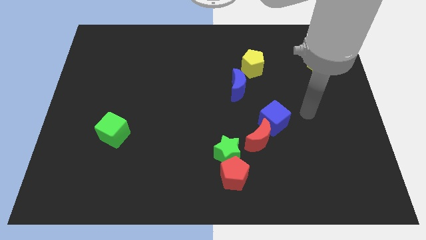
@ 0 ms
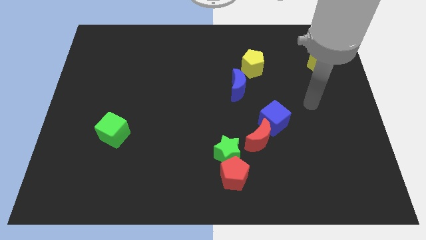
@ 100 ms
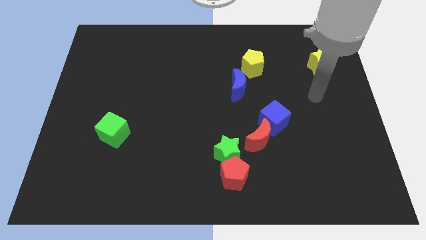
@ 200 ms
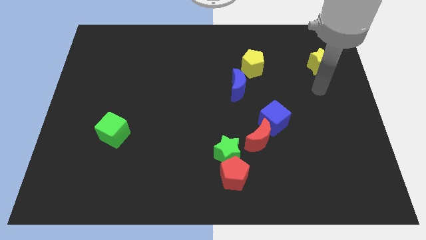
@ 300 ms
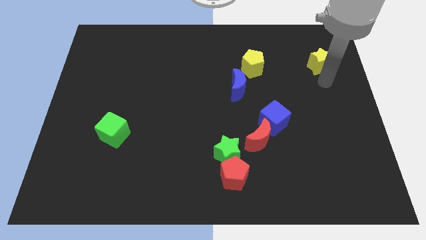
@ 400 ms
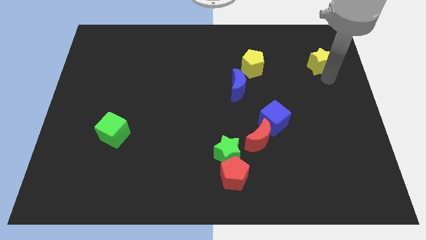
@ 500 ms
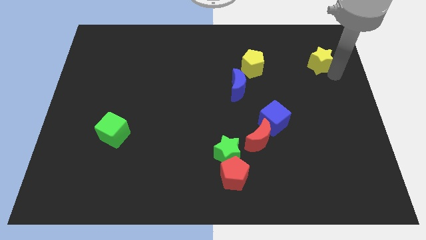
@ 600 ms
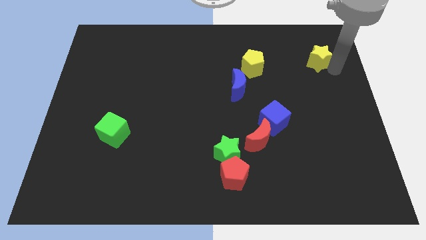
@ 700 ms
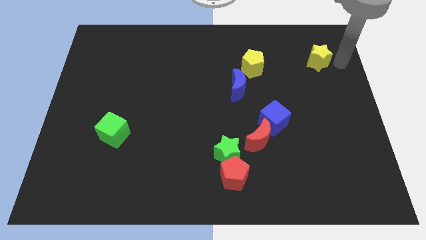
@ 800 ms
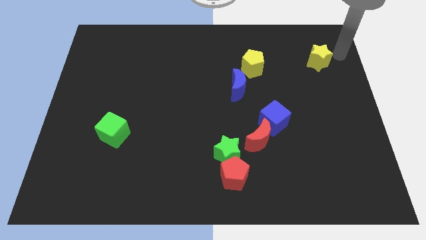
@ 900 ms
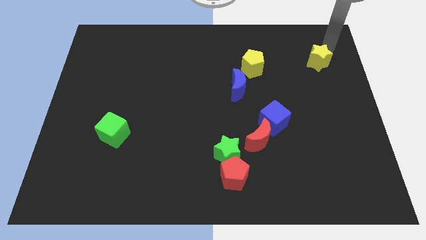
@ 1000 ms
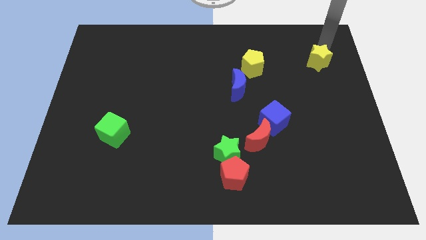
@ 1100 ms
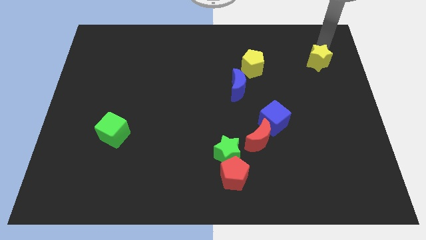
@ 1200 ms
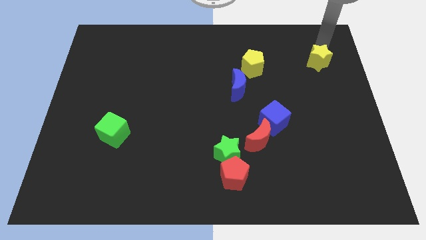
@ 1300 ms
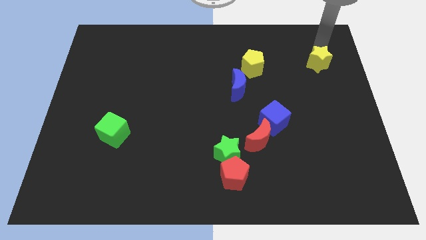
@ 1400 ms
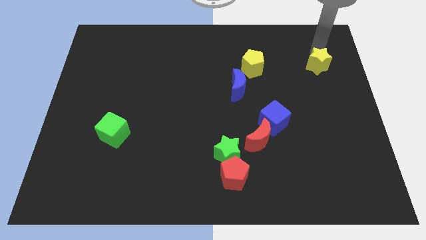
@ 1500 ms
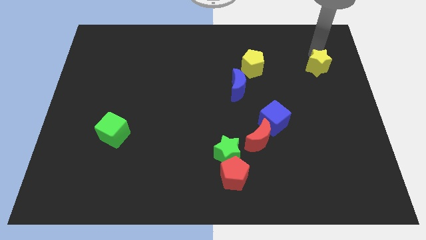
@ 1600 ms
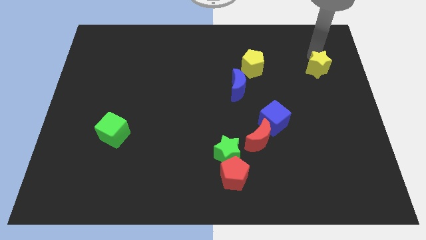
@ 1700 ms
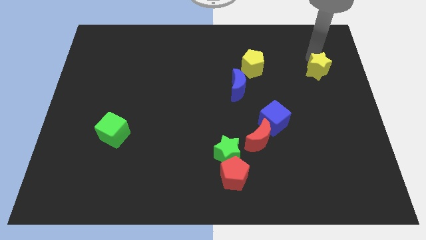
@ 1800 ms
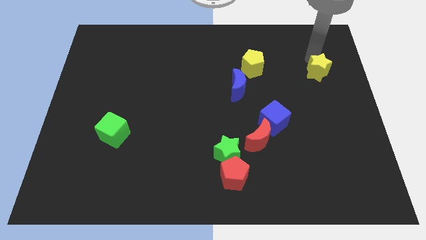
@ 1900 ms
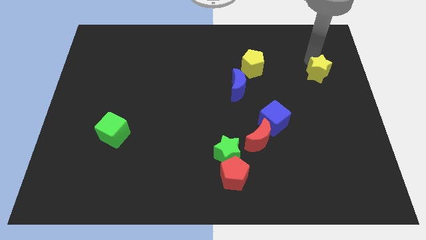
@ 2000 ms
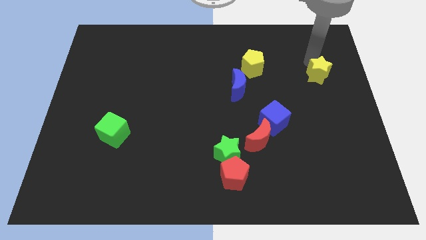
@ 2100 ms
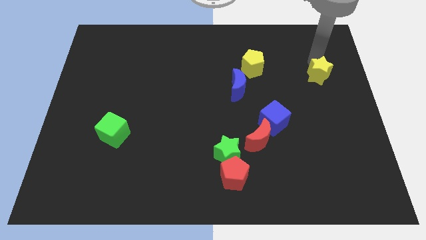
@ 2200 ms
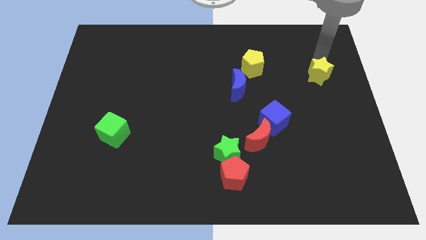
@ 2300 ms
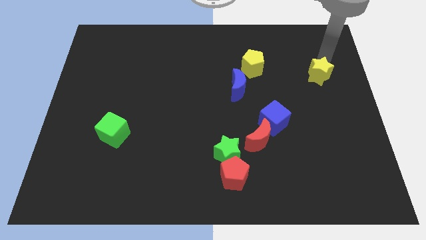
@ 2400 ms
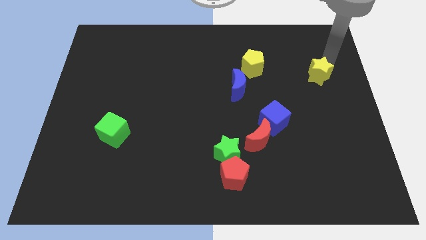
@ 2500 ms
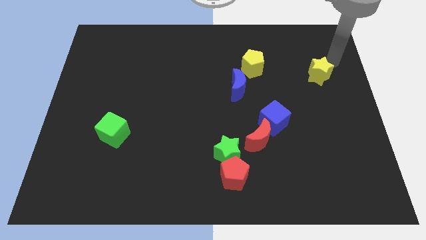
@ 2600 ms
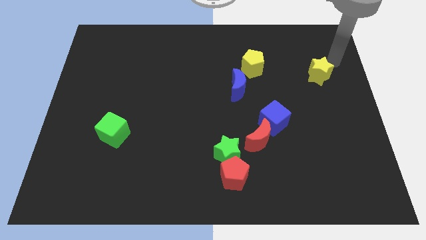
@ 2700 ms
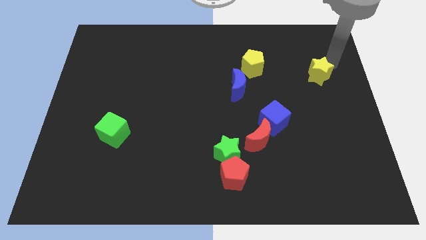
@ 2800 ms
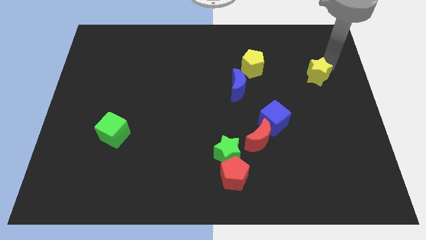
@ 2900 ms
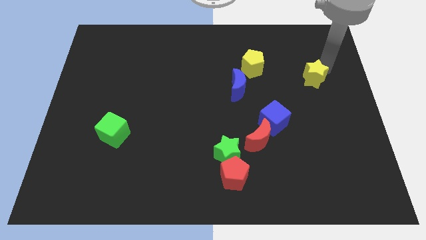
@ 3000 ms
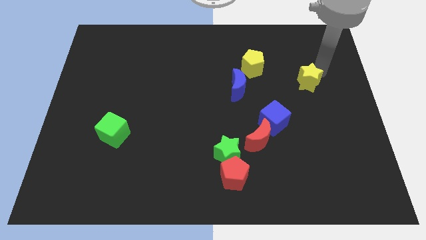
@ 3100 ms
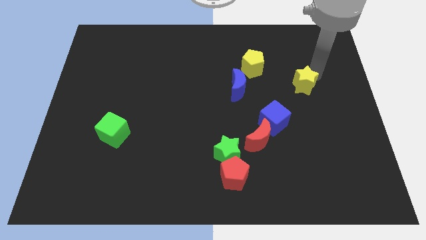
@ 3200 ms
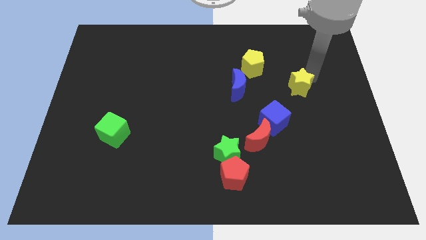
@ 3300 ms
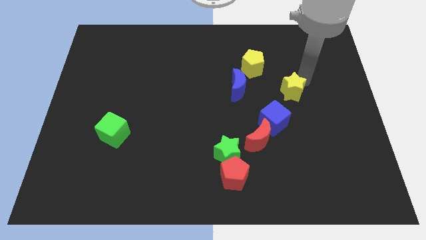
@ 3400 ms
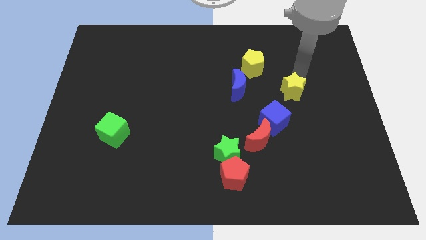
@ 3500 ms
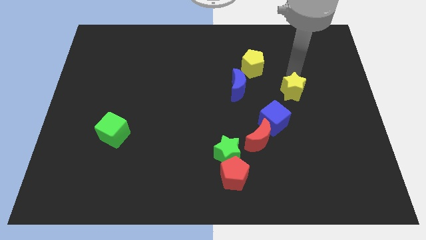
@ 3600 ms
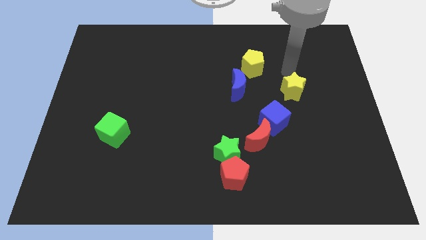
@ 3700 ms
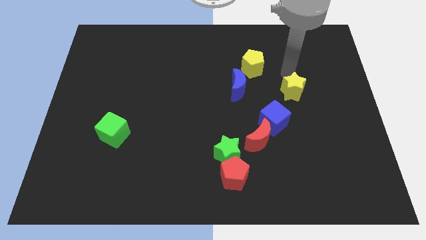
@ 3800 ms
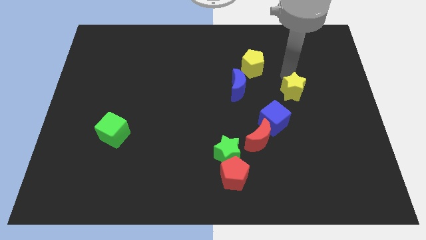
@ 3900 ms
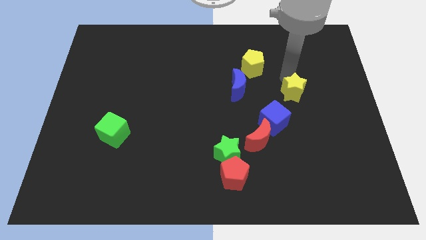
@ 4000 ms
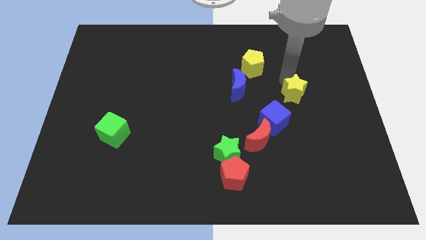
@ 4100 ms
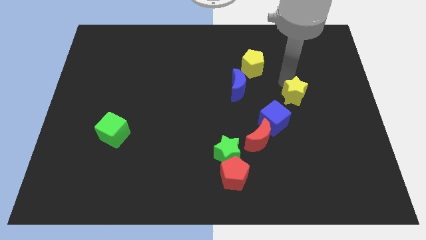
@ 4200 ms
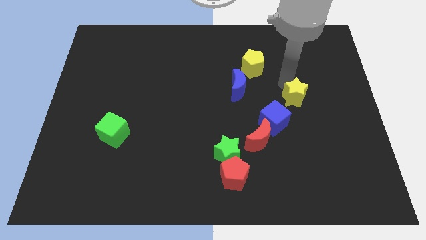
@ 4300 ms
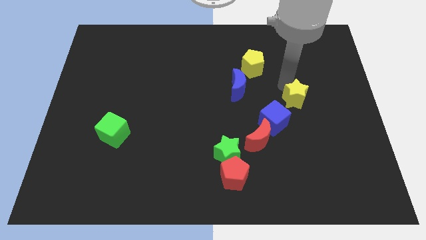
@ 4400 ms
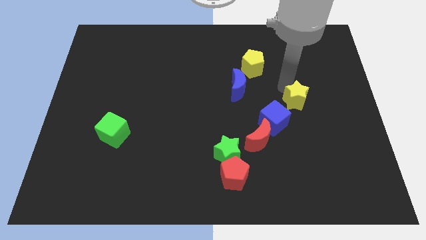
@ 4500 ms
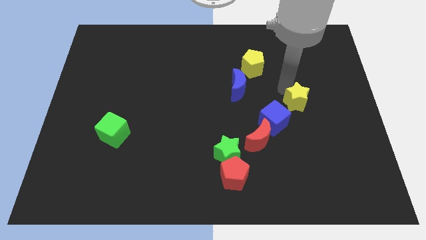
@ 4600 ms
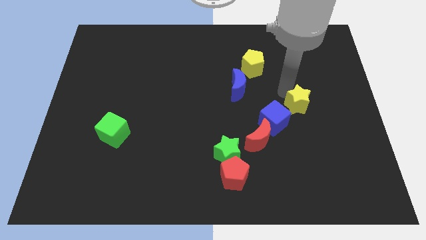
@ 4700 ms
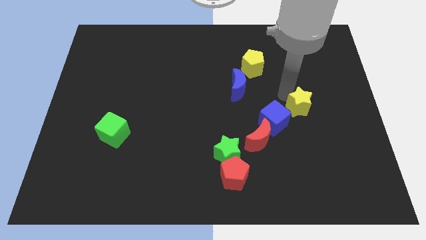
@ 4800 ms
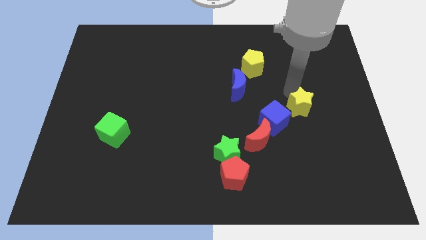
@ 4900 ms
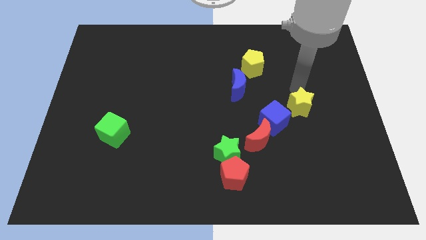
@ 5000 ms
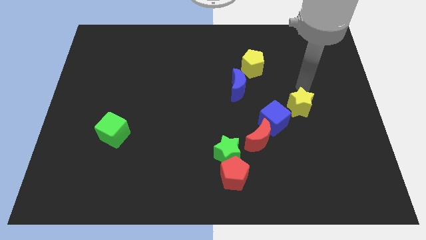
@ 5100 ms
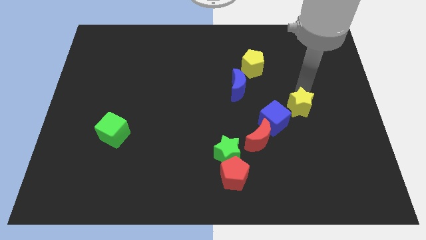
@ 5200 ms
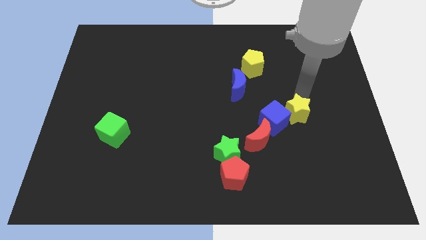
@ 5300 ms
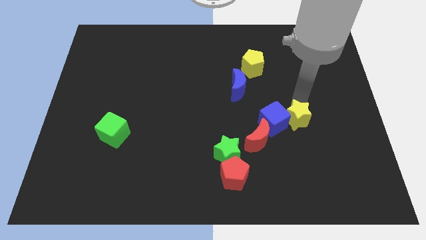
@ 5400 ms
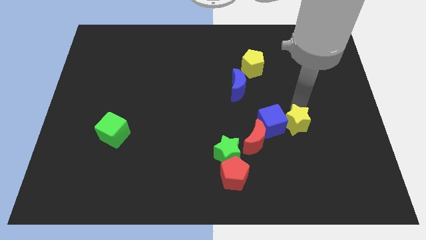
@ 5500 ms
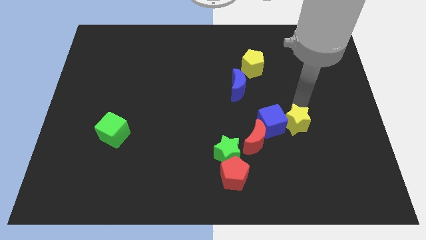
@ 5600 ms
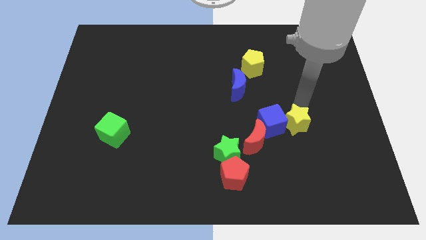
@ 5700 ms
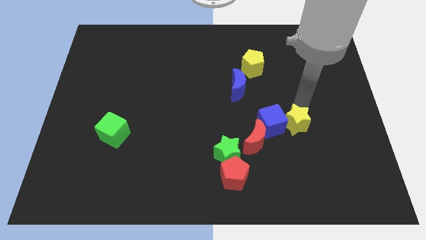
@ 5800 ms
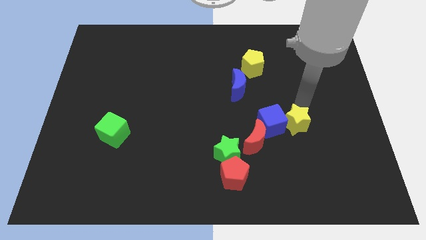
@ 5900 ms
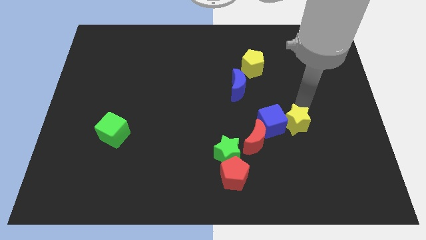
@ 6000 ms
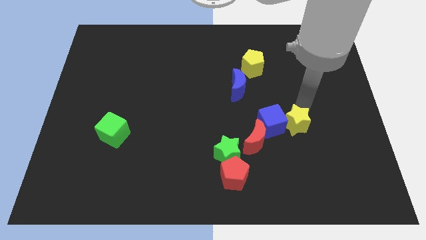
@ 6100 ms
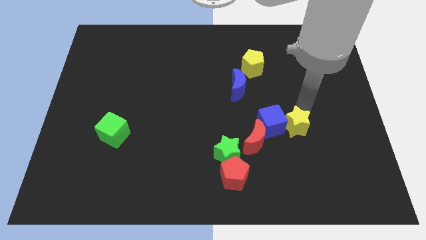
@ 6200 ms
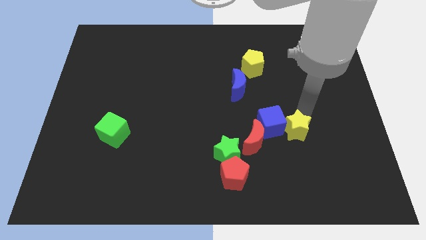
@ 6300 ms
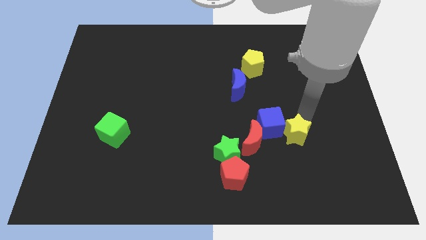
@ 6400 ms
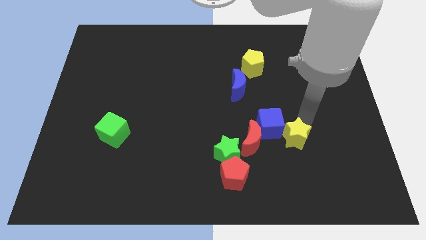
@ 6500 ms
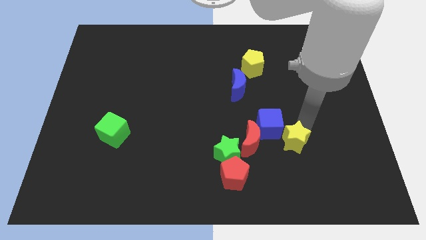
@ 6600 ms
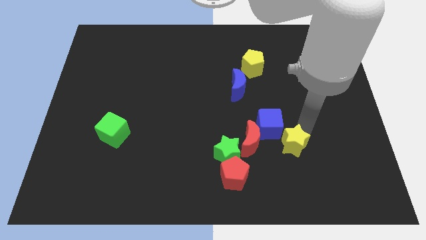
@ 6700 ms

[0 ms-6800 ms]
slide the yellow star below the blue cube

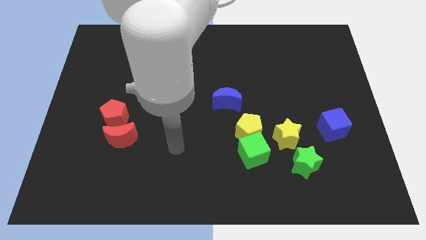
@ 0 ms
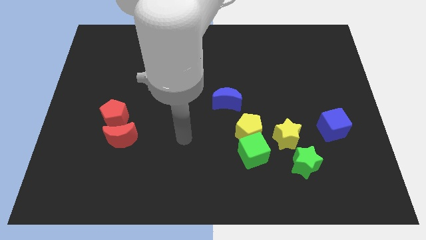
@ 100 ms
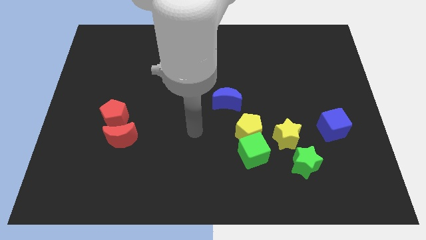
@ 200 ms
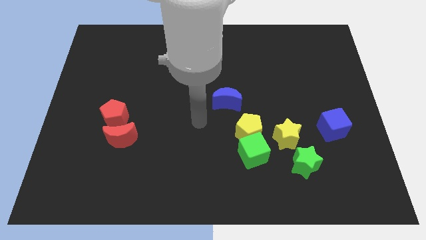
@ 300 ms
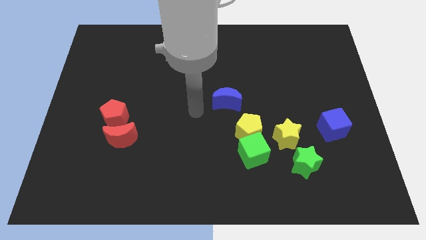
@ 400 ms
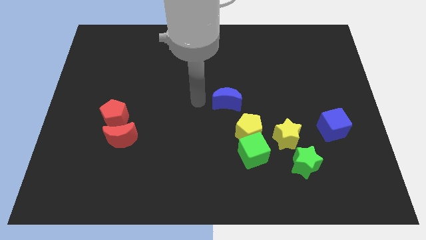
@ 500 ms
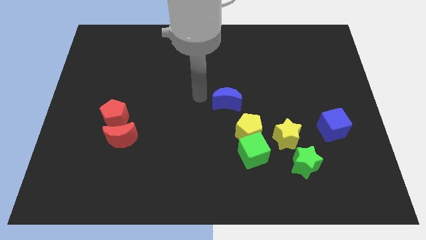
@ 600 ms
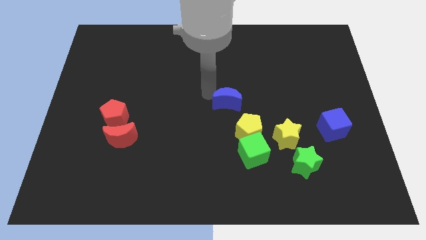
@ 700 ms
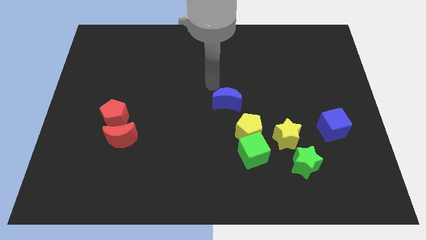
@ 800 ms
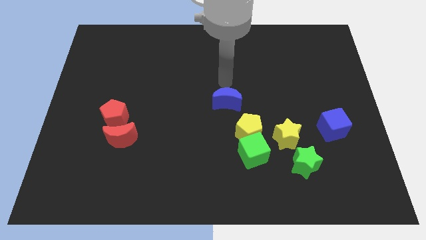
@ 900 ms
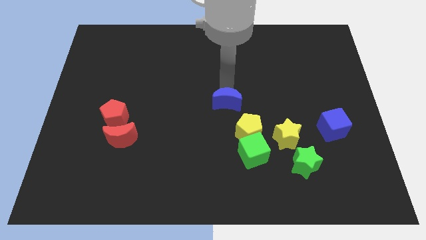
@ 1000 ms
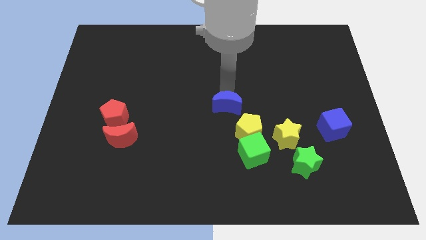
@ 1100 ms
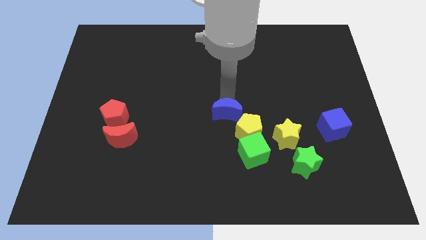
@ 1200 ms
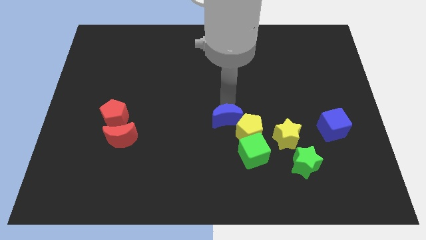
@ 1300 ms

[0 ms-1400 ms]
slide the blue moon to the top left side of the green cube

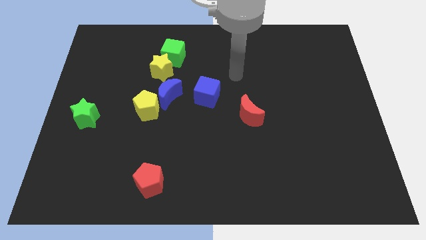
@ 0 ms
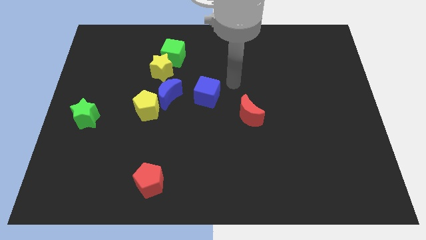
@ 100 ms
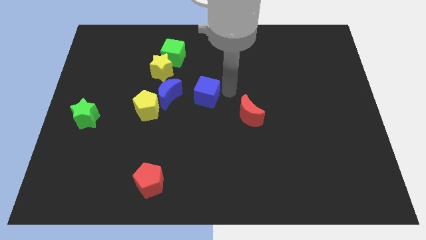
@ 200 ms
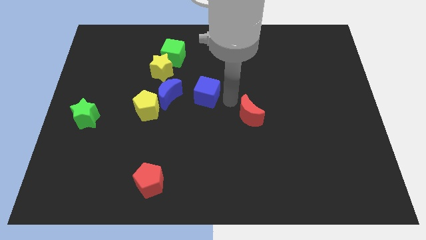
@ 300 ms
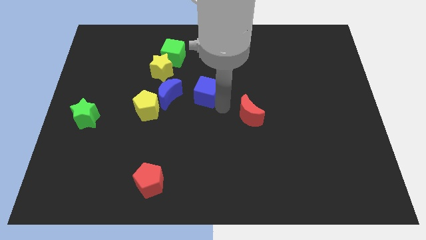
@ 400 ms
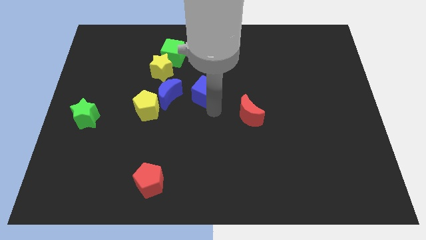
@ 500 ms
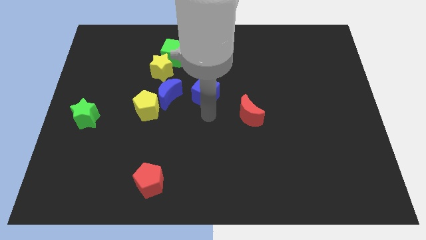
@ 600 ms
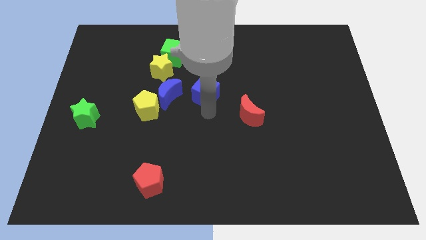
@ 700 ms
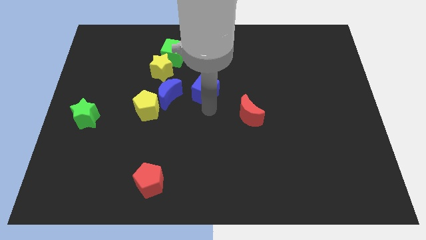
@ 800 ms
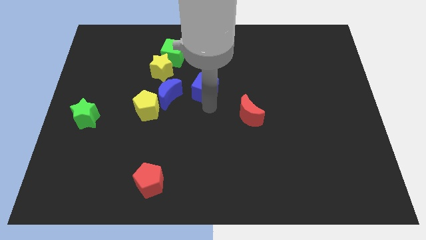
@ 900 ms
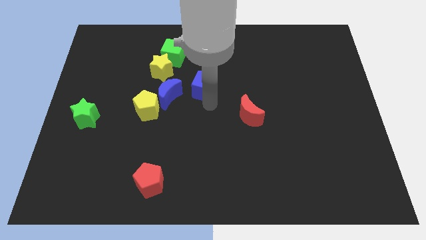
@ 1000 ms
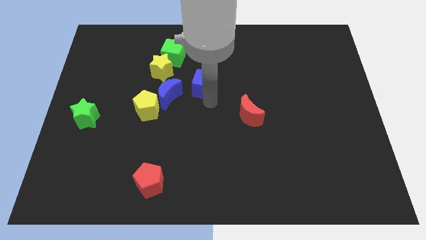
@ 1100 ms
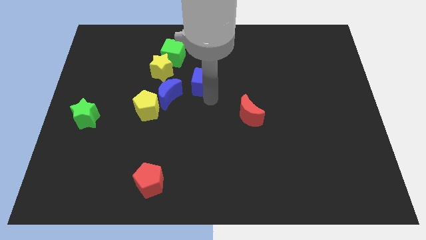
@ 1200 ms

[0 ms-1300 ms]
push the blue cube to the right side of the yellow star
